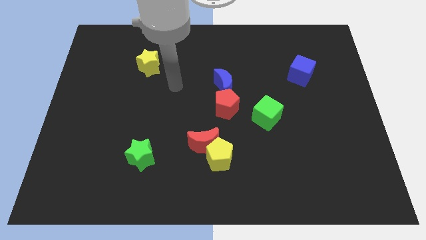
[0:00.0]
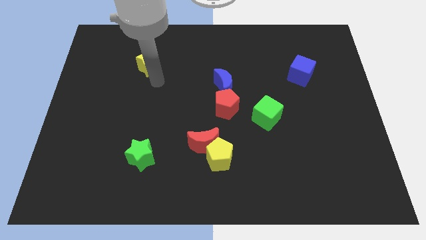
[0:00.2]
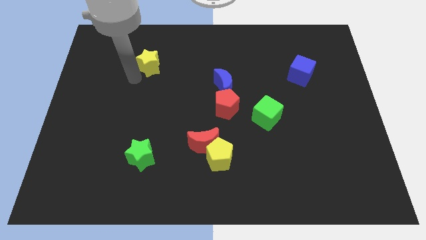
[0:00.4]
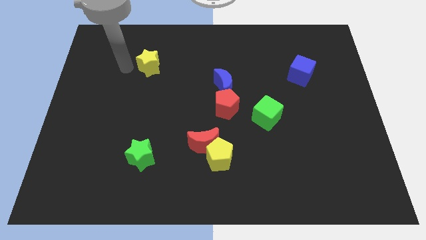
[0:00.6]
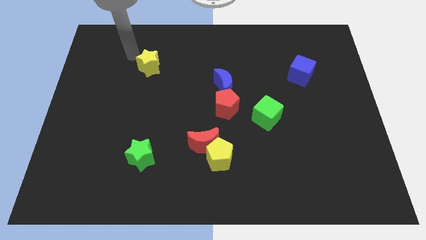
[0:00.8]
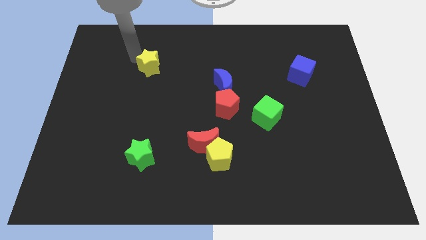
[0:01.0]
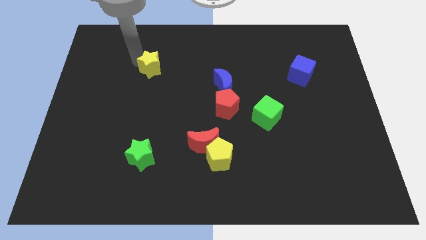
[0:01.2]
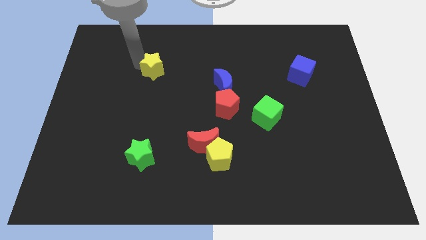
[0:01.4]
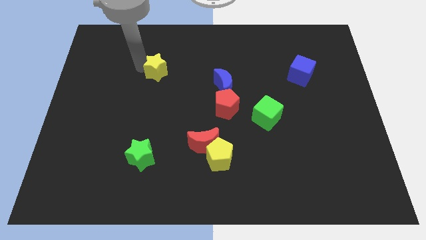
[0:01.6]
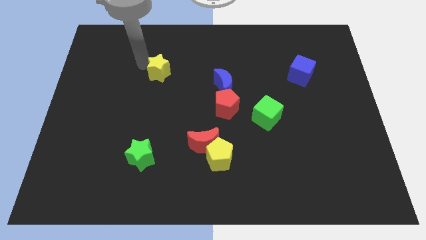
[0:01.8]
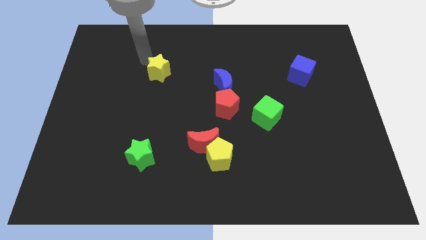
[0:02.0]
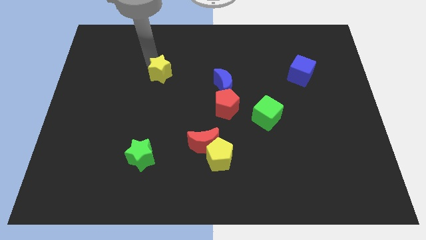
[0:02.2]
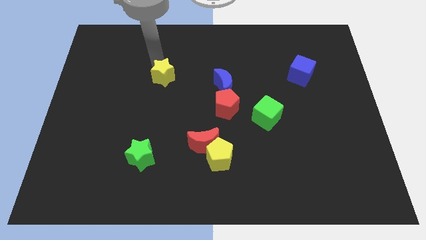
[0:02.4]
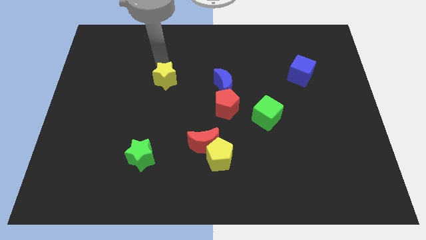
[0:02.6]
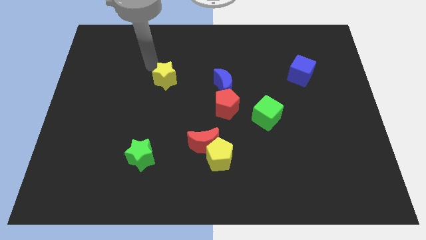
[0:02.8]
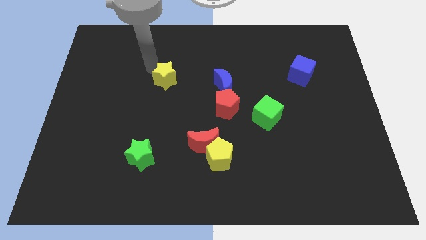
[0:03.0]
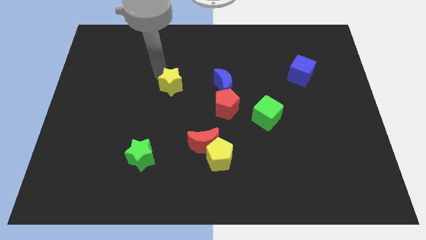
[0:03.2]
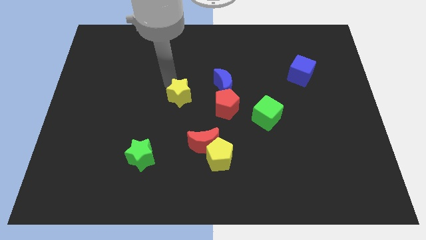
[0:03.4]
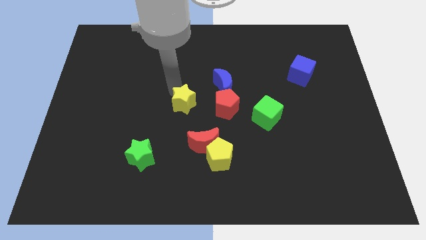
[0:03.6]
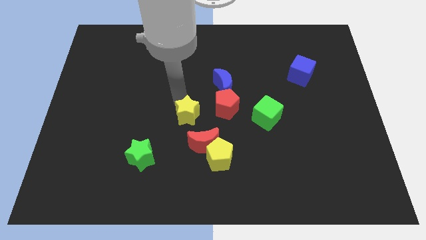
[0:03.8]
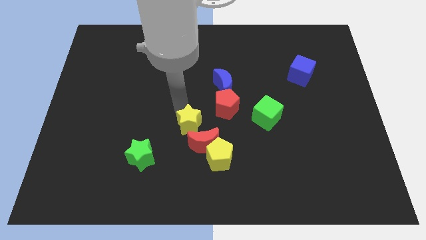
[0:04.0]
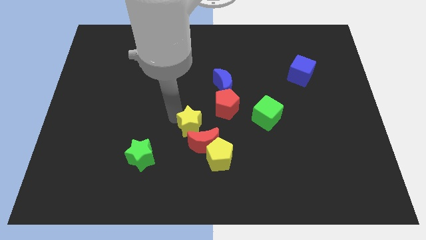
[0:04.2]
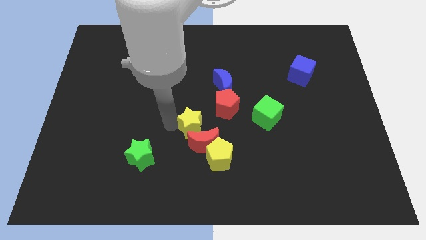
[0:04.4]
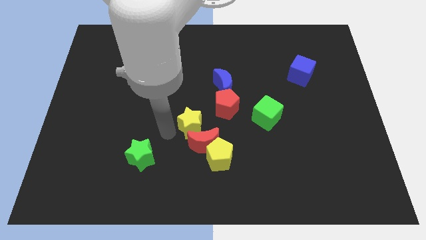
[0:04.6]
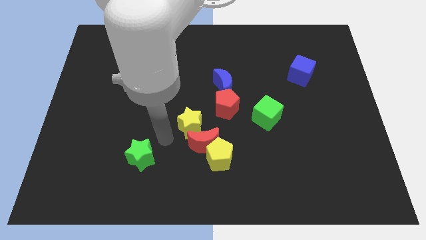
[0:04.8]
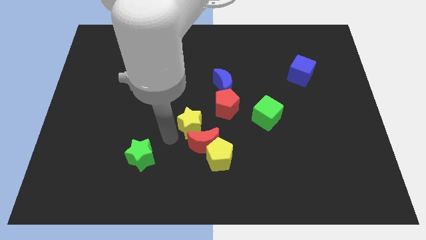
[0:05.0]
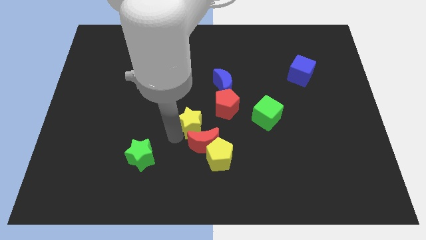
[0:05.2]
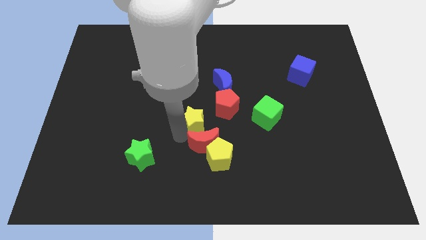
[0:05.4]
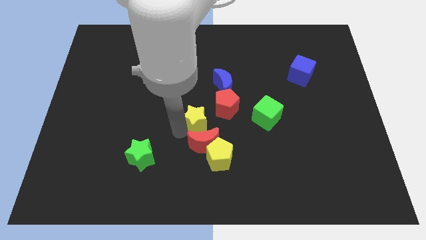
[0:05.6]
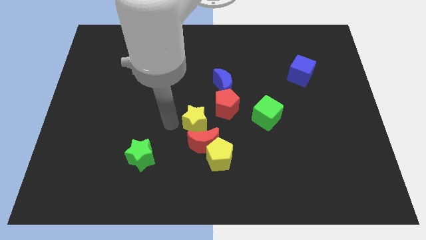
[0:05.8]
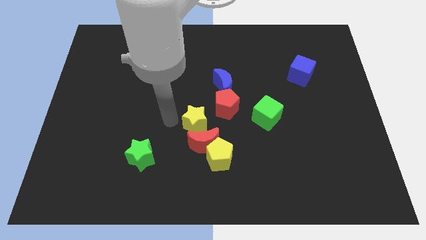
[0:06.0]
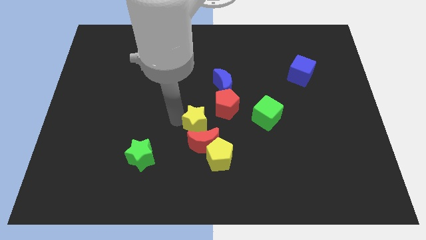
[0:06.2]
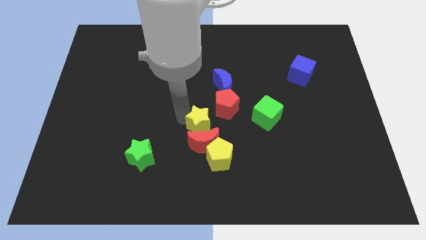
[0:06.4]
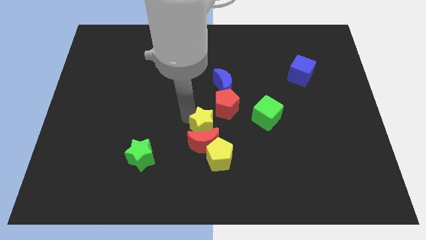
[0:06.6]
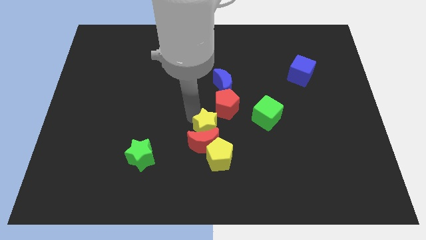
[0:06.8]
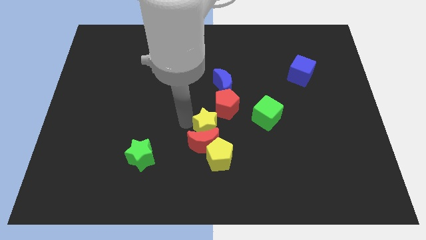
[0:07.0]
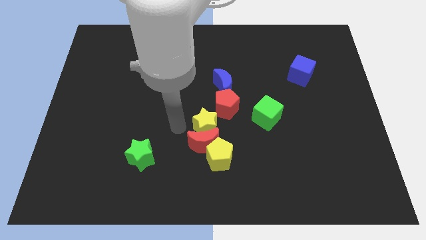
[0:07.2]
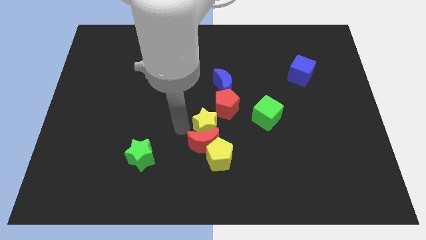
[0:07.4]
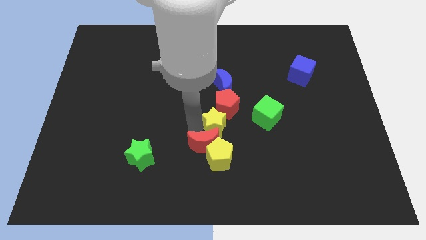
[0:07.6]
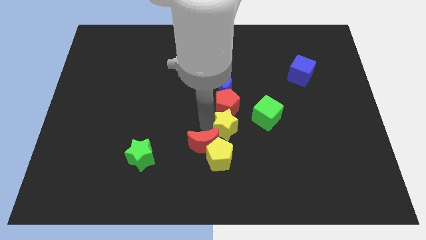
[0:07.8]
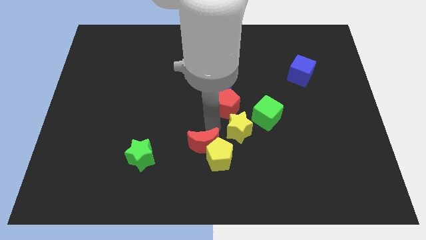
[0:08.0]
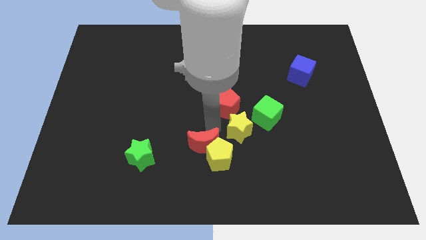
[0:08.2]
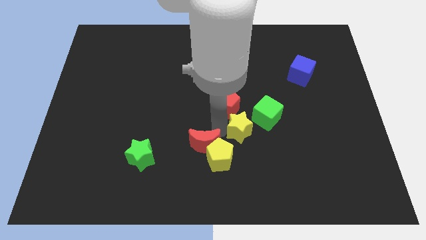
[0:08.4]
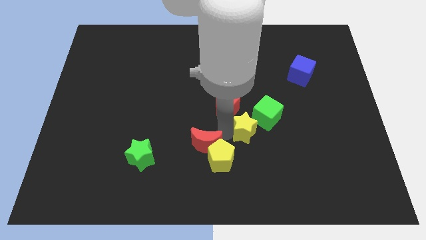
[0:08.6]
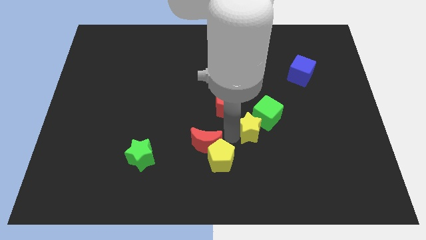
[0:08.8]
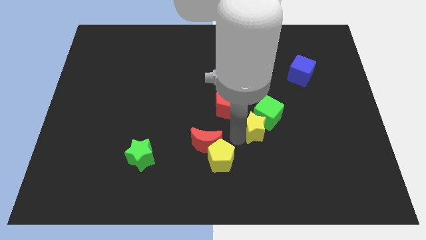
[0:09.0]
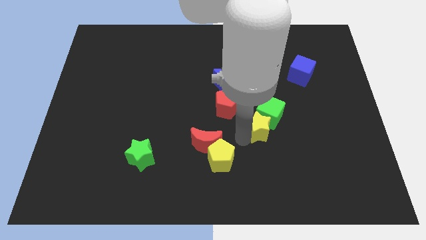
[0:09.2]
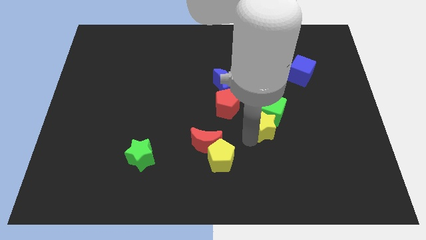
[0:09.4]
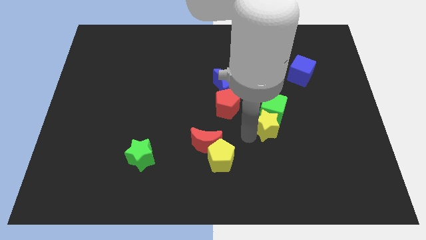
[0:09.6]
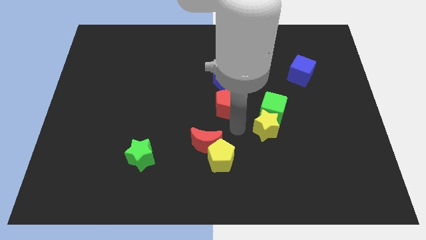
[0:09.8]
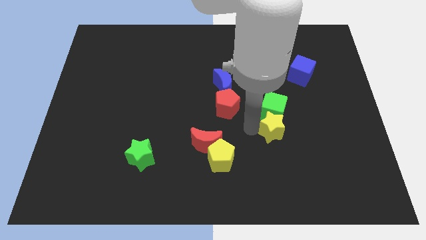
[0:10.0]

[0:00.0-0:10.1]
slide the yellow star diagonally down and to the right of the green cube

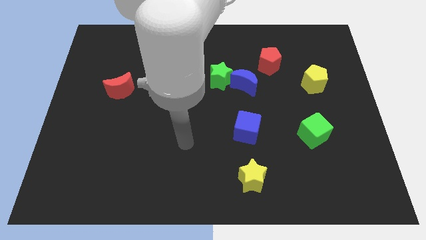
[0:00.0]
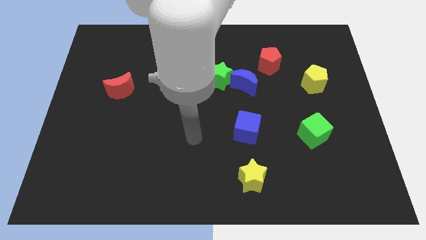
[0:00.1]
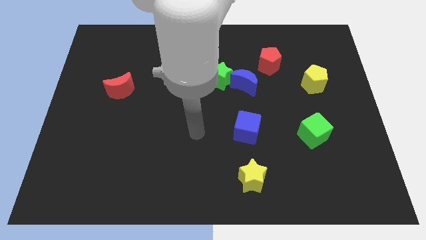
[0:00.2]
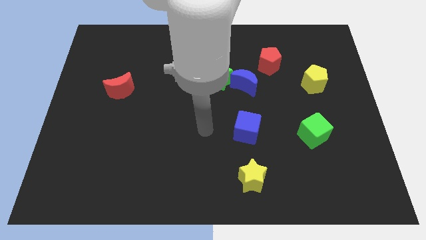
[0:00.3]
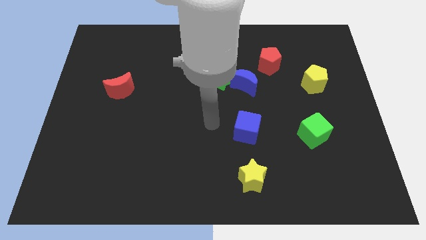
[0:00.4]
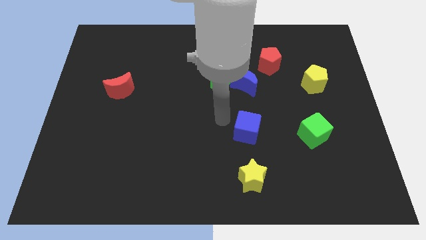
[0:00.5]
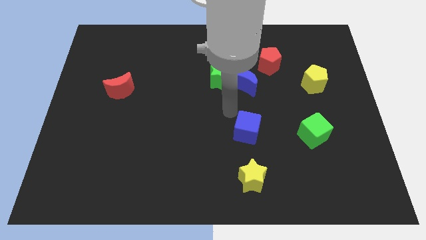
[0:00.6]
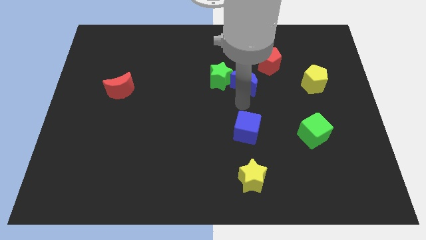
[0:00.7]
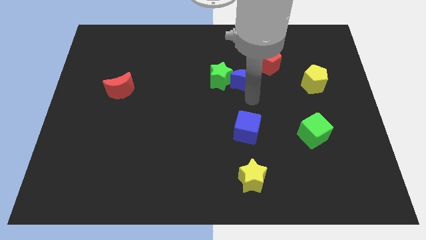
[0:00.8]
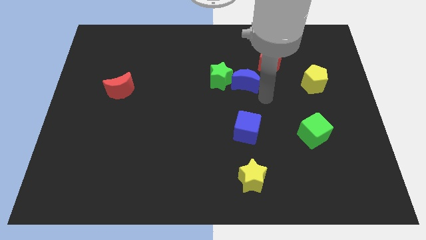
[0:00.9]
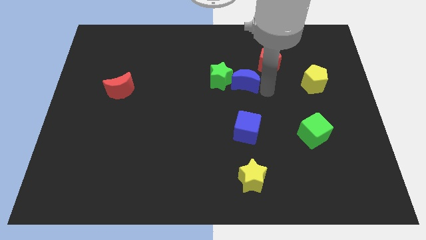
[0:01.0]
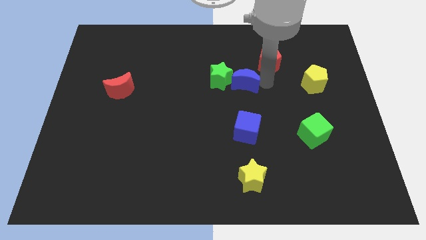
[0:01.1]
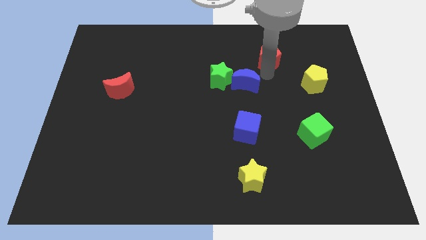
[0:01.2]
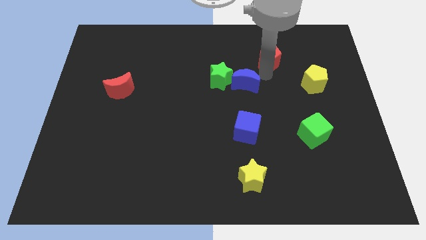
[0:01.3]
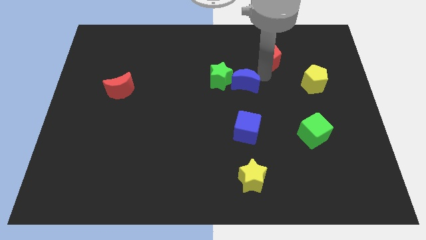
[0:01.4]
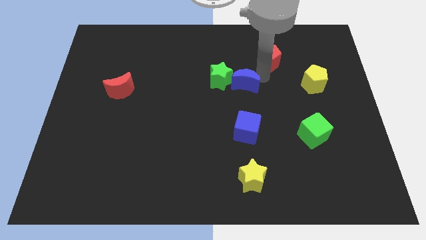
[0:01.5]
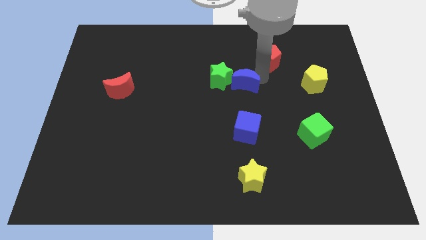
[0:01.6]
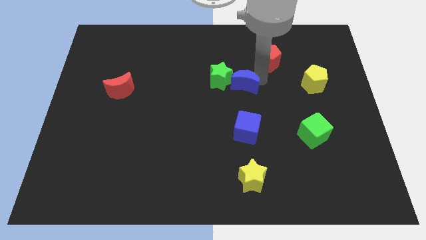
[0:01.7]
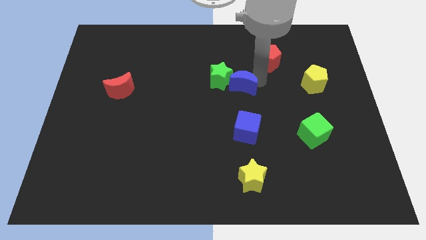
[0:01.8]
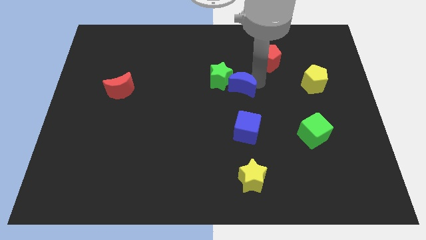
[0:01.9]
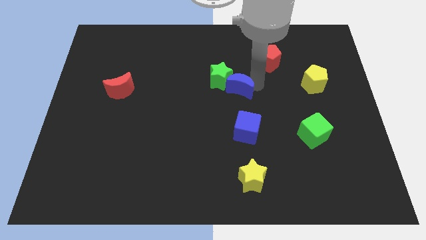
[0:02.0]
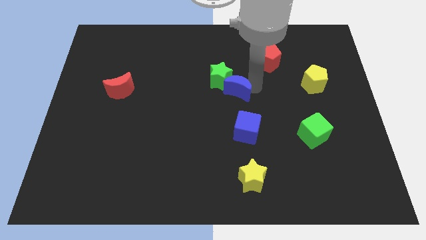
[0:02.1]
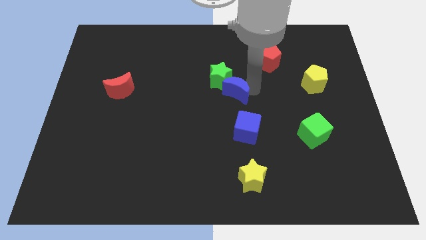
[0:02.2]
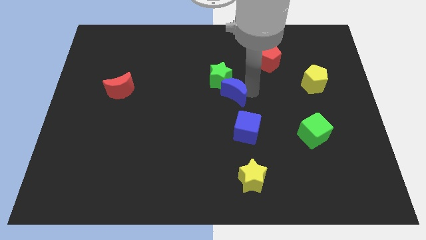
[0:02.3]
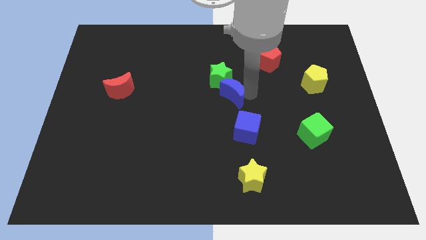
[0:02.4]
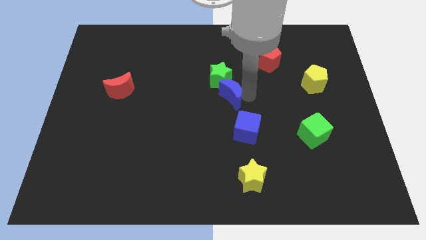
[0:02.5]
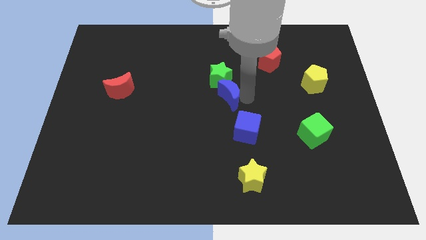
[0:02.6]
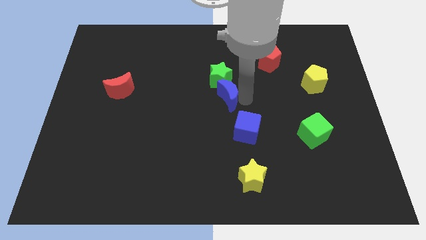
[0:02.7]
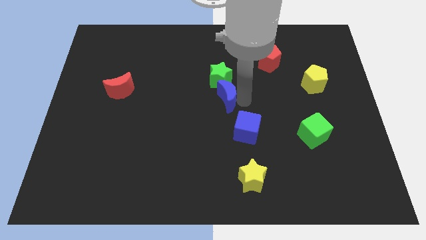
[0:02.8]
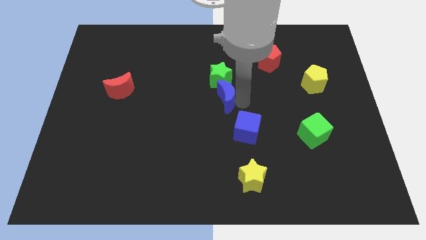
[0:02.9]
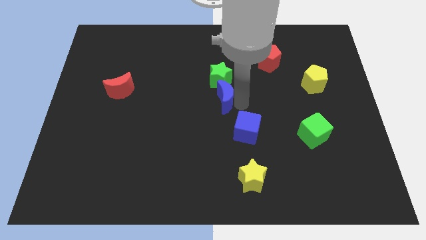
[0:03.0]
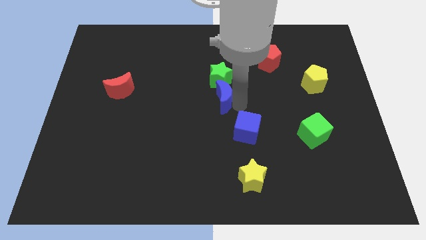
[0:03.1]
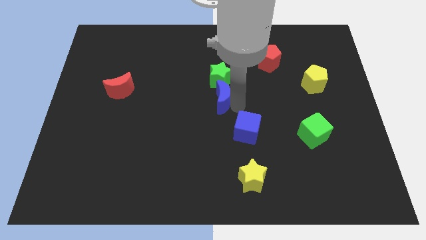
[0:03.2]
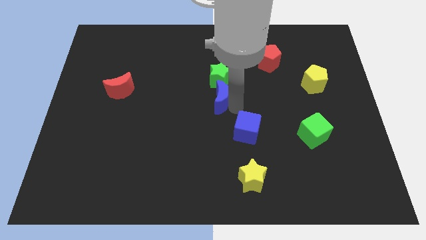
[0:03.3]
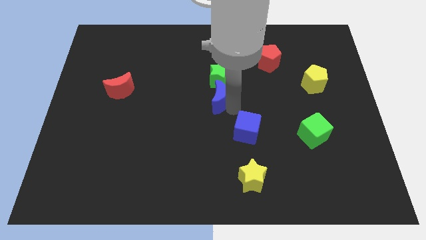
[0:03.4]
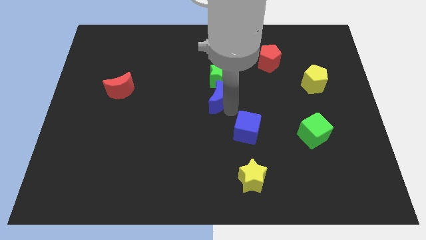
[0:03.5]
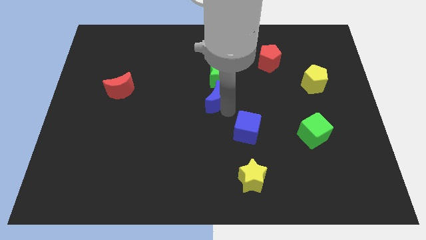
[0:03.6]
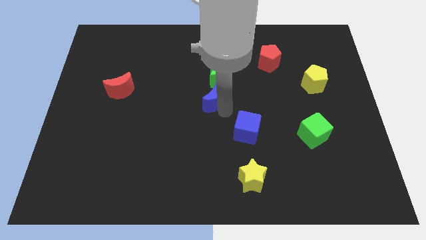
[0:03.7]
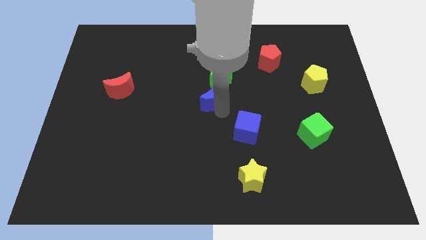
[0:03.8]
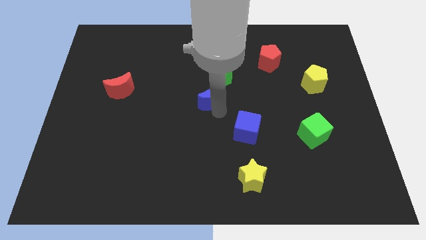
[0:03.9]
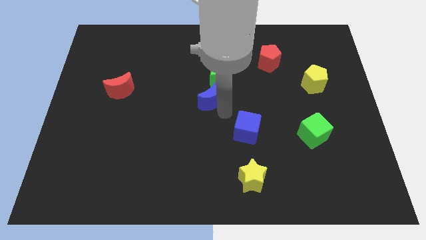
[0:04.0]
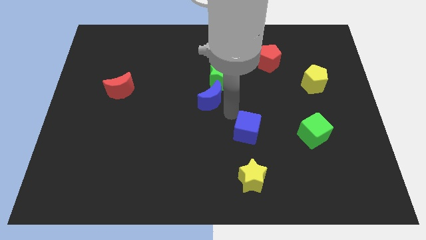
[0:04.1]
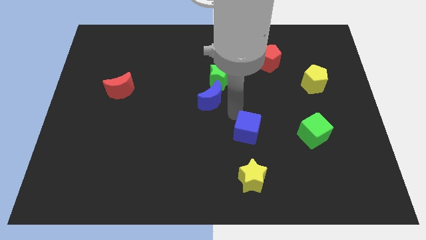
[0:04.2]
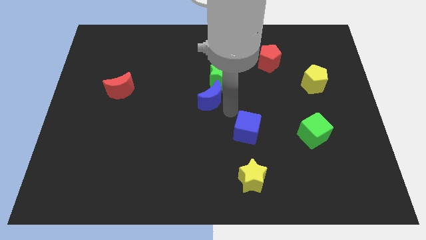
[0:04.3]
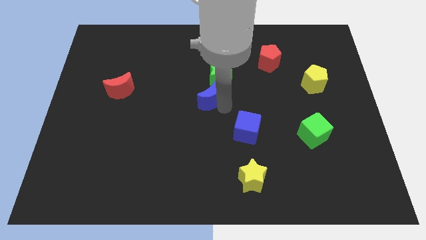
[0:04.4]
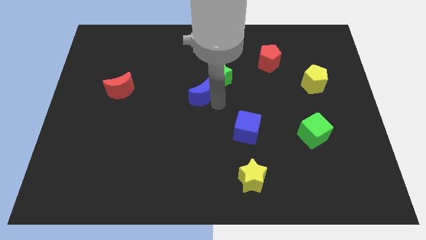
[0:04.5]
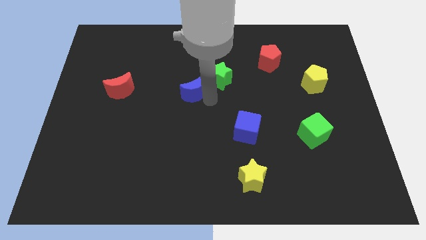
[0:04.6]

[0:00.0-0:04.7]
push the blue moon left of the green star
